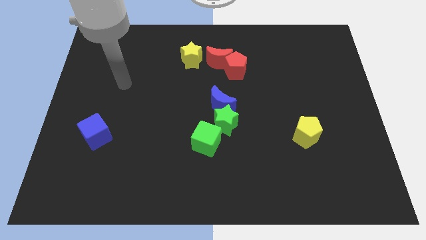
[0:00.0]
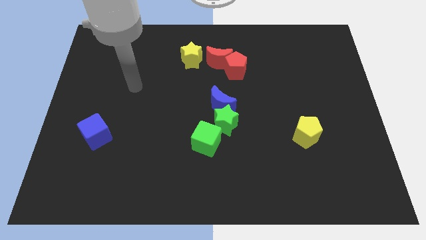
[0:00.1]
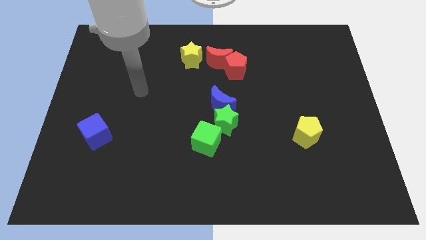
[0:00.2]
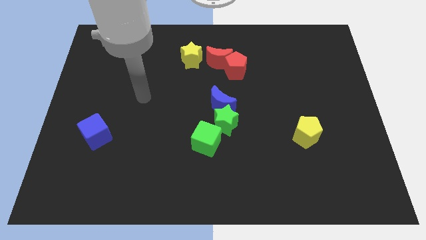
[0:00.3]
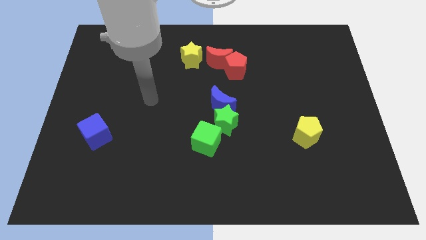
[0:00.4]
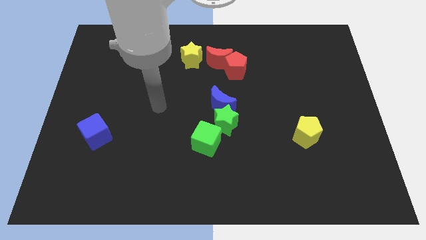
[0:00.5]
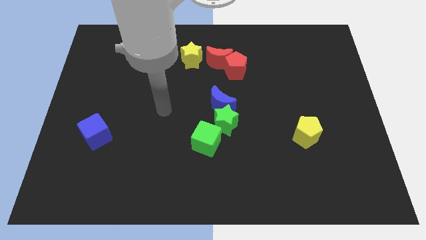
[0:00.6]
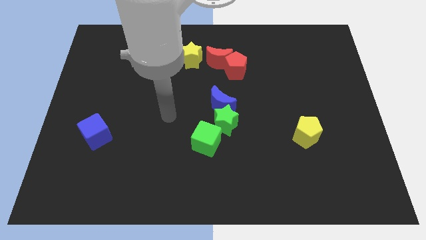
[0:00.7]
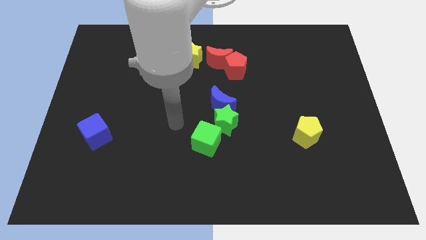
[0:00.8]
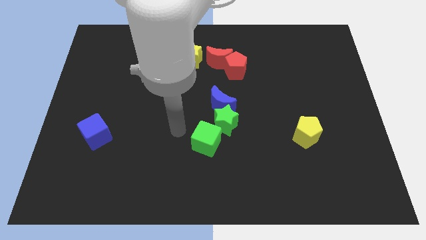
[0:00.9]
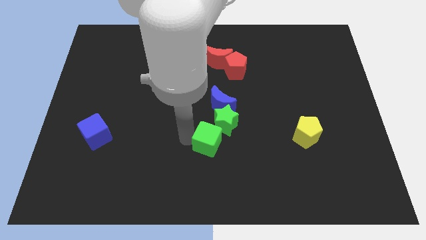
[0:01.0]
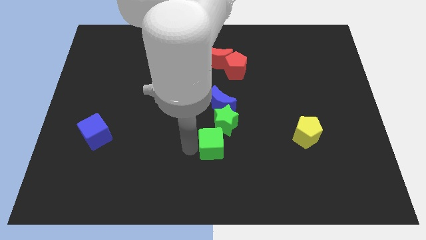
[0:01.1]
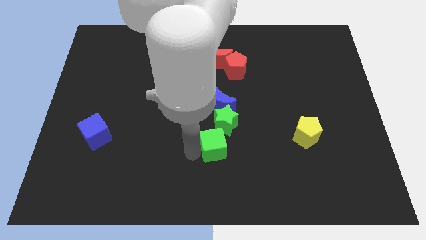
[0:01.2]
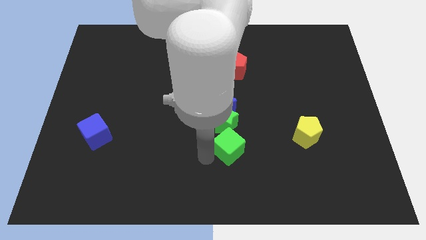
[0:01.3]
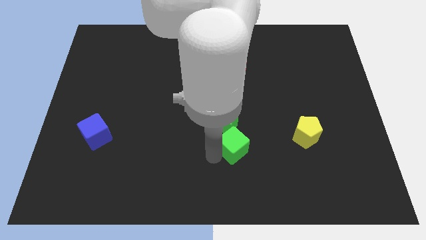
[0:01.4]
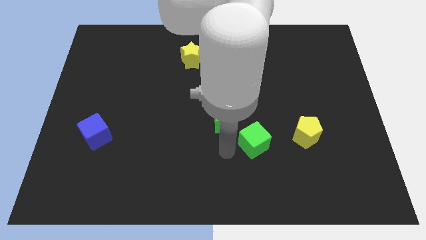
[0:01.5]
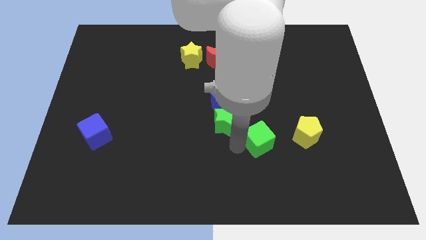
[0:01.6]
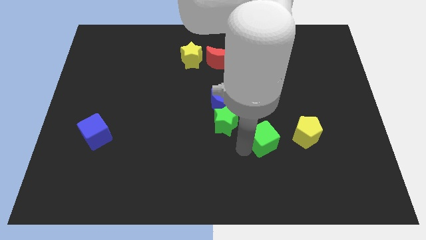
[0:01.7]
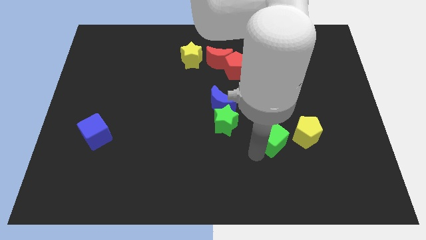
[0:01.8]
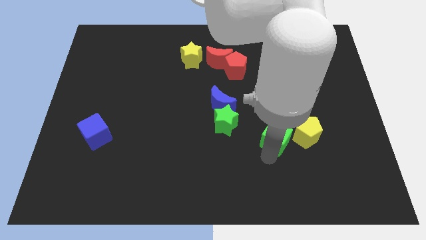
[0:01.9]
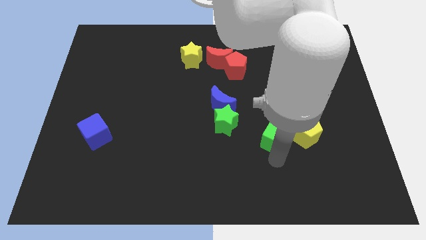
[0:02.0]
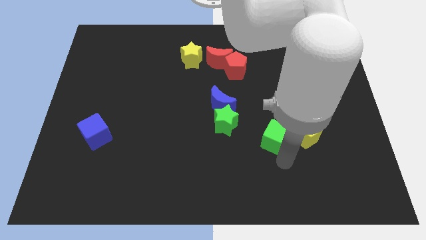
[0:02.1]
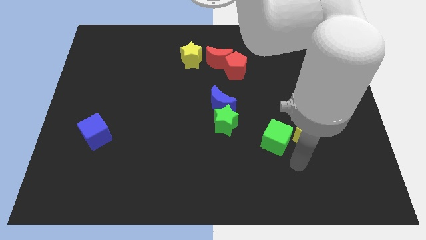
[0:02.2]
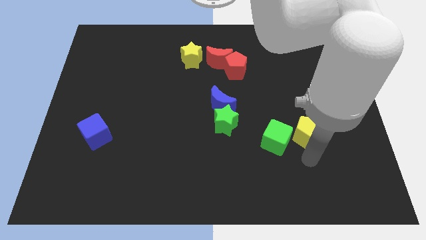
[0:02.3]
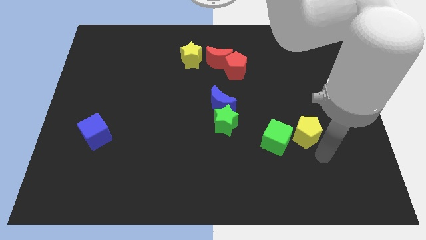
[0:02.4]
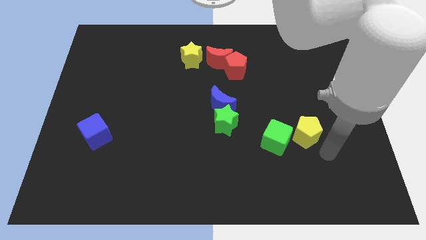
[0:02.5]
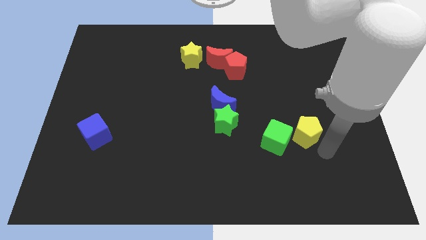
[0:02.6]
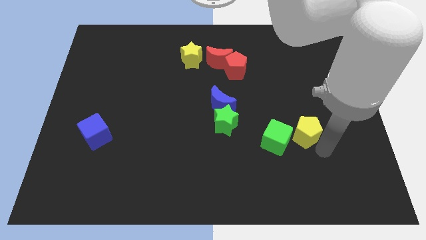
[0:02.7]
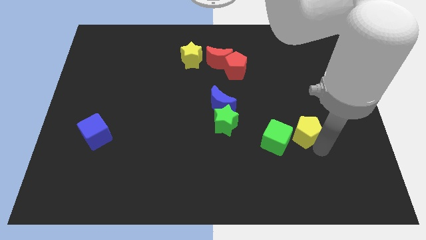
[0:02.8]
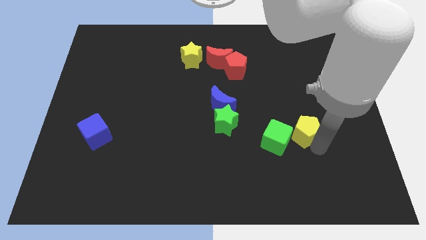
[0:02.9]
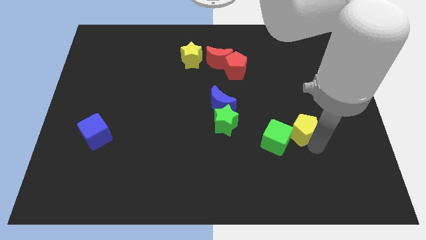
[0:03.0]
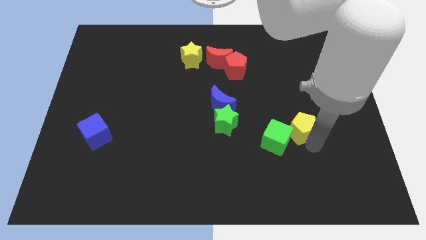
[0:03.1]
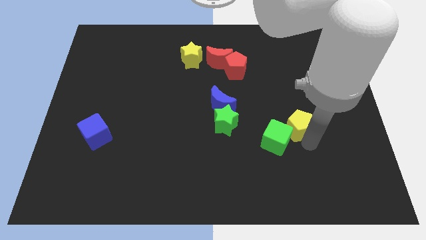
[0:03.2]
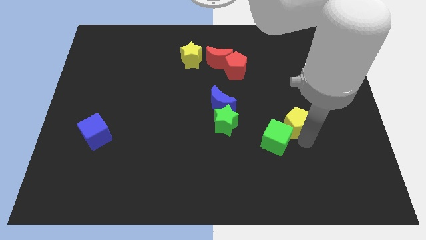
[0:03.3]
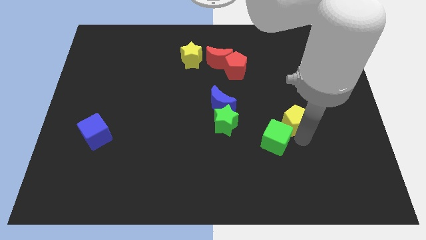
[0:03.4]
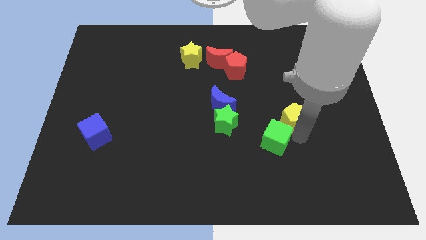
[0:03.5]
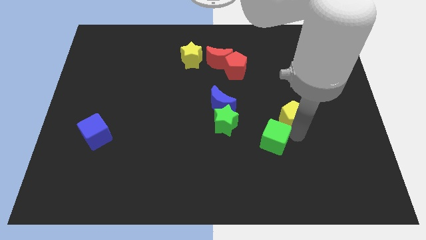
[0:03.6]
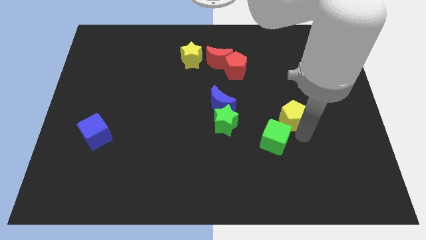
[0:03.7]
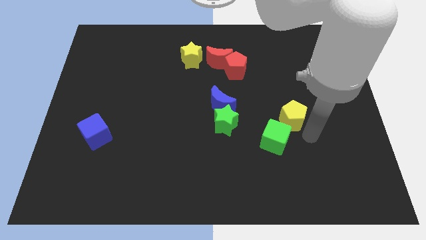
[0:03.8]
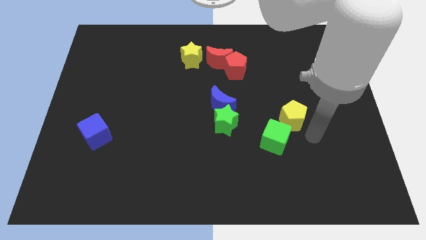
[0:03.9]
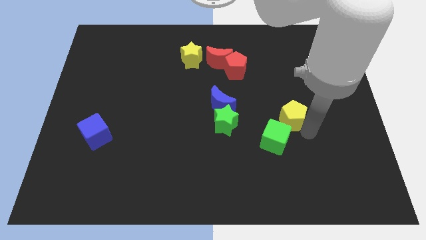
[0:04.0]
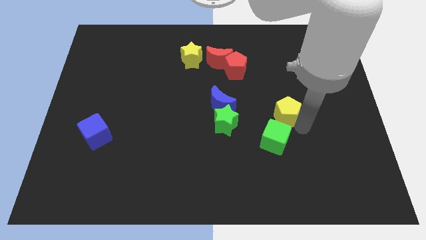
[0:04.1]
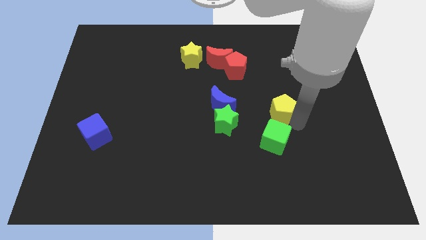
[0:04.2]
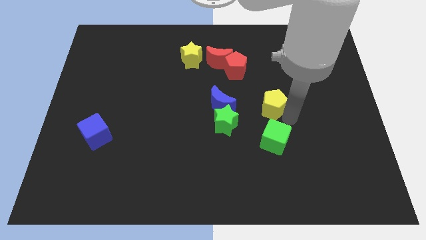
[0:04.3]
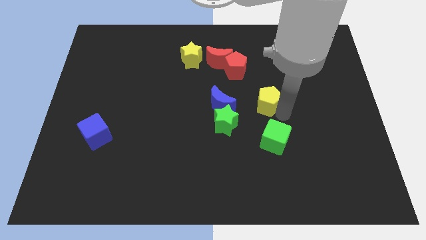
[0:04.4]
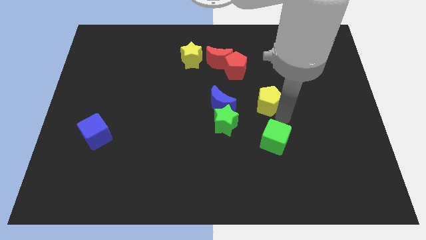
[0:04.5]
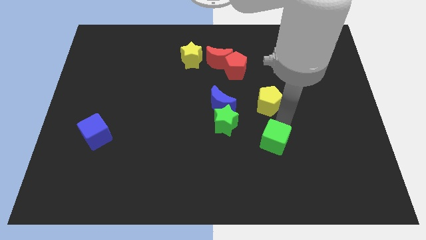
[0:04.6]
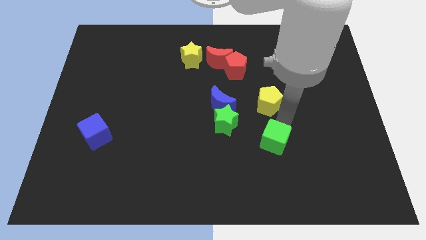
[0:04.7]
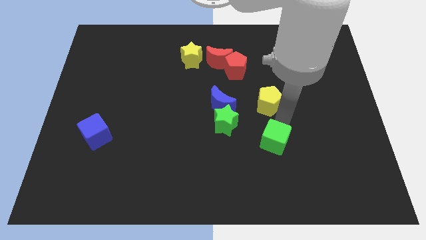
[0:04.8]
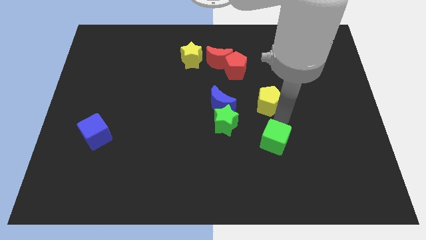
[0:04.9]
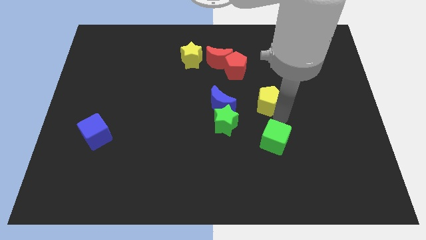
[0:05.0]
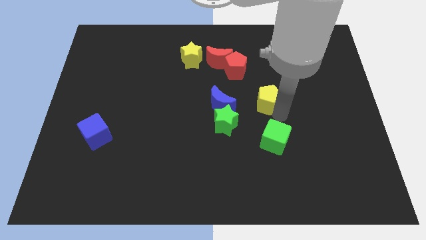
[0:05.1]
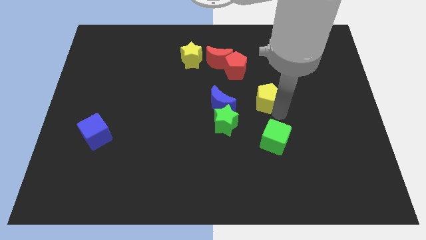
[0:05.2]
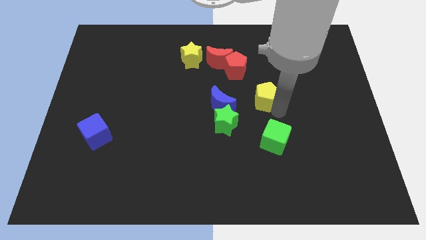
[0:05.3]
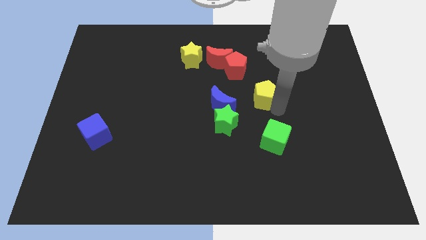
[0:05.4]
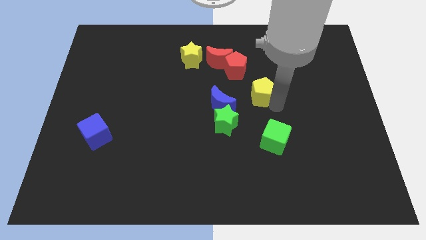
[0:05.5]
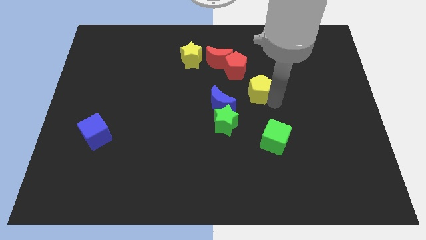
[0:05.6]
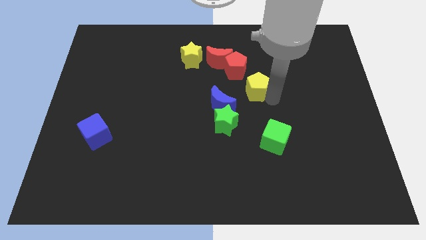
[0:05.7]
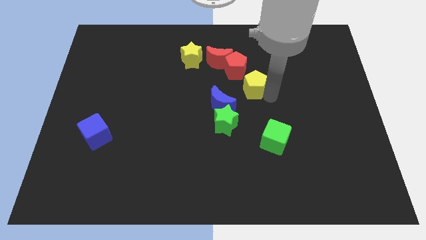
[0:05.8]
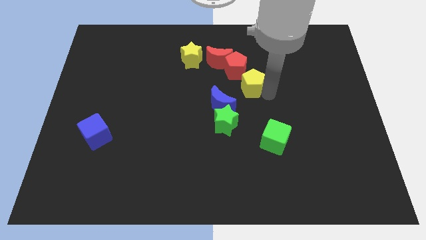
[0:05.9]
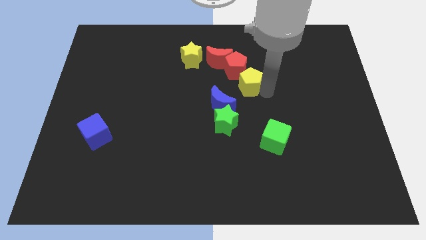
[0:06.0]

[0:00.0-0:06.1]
move the yellow pentagon towards the red pentagon

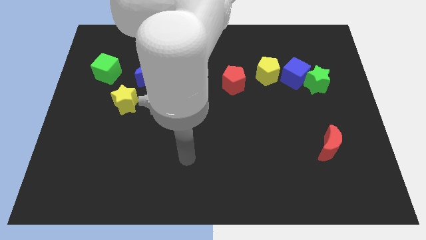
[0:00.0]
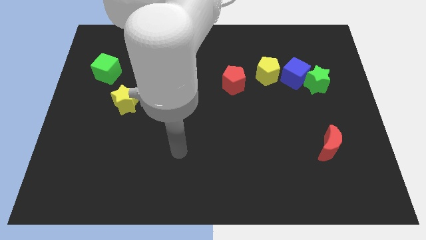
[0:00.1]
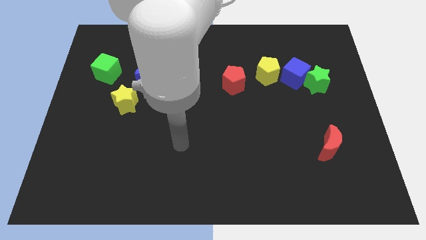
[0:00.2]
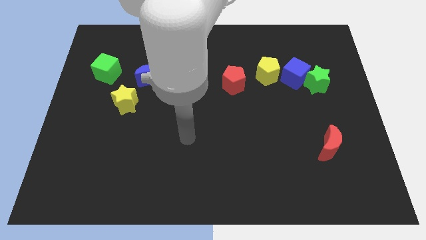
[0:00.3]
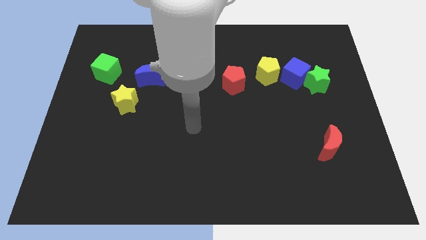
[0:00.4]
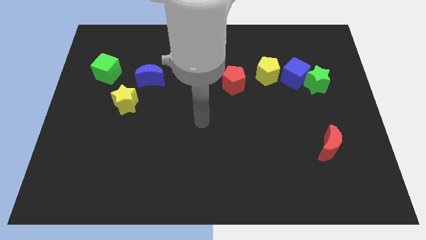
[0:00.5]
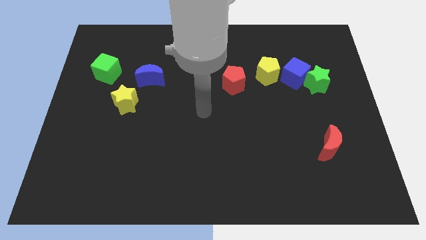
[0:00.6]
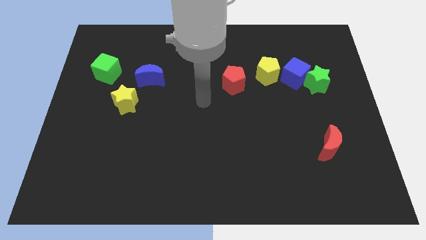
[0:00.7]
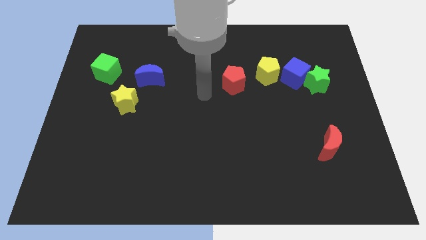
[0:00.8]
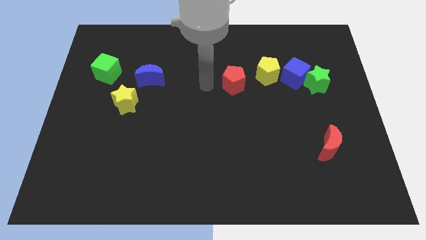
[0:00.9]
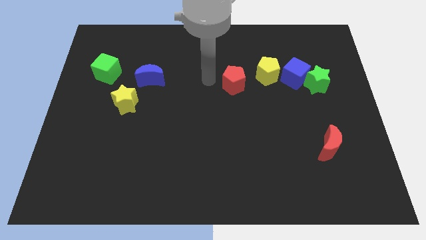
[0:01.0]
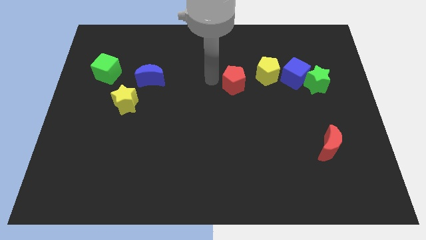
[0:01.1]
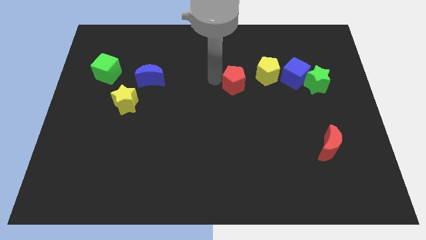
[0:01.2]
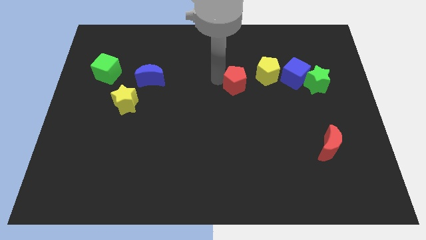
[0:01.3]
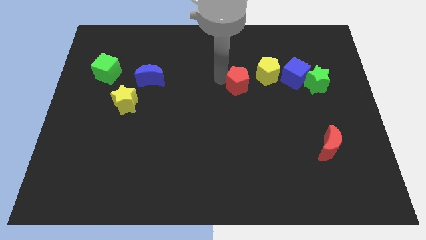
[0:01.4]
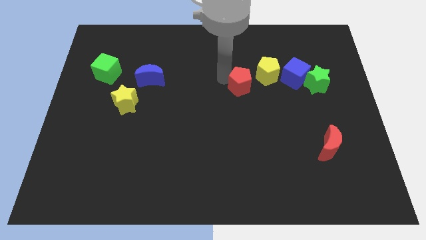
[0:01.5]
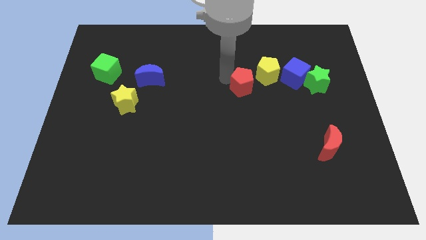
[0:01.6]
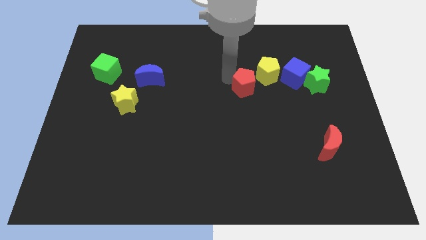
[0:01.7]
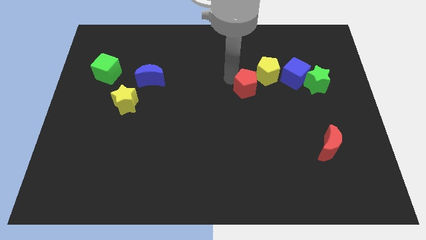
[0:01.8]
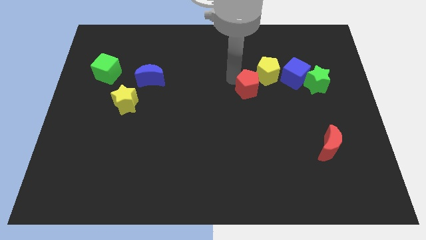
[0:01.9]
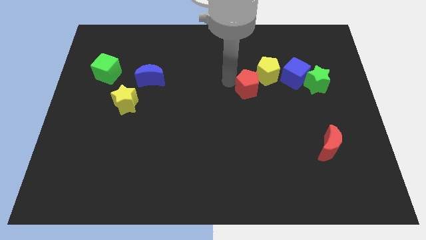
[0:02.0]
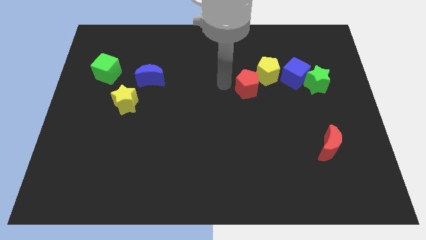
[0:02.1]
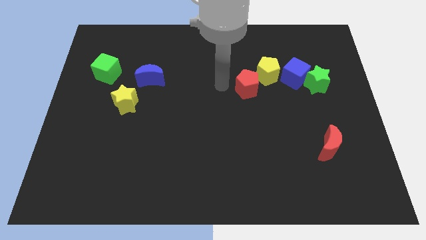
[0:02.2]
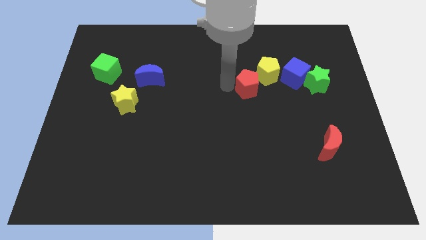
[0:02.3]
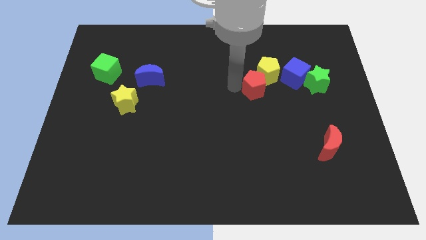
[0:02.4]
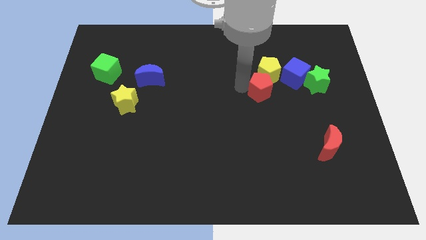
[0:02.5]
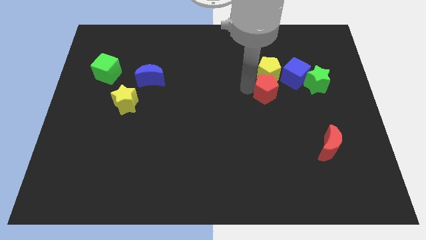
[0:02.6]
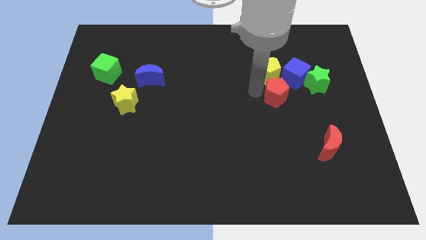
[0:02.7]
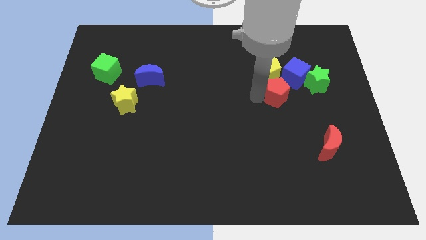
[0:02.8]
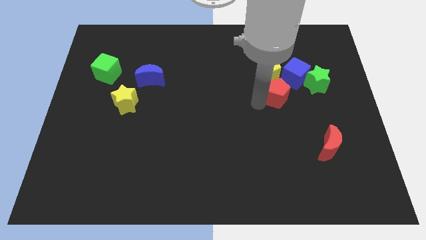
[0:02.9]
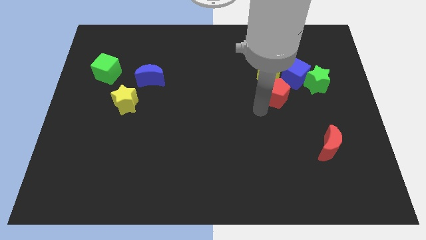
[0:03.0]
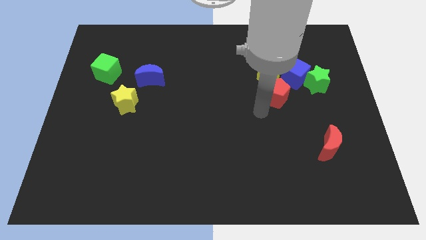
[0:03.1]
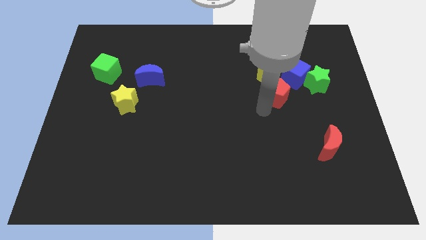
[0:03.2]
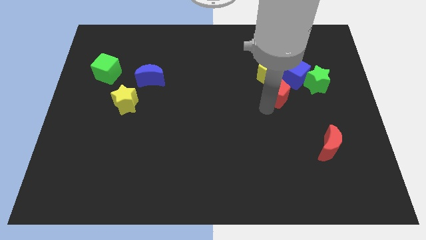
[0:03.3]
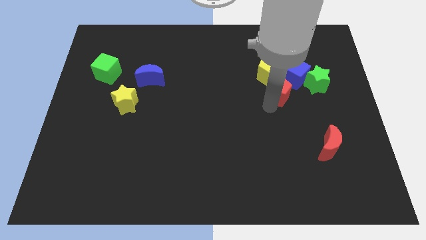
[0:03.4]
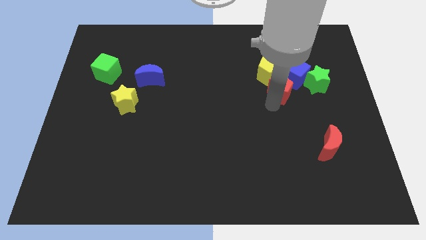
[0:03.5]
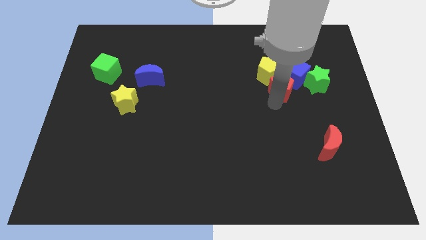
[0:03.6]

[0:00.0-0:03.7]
put the red pentagon to the blue cube
